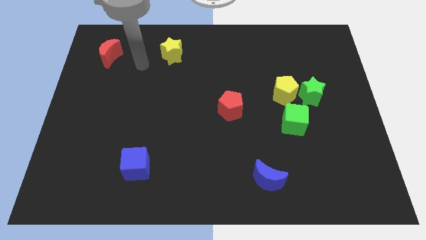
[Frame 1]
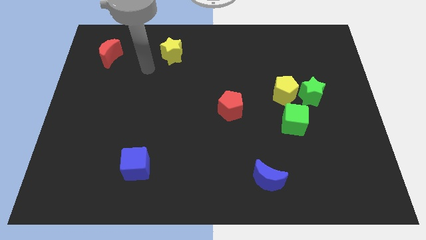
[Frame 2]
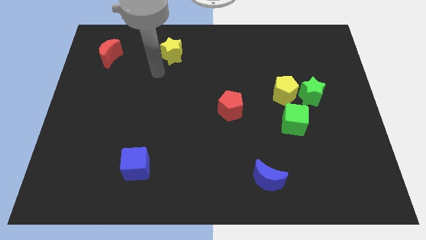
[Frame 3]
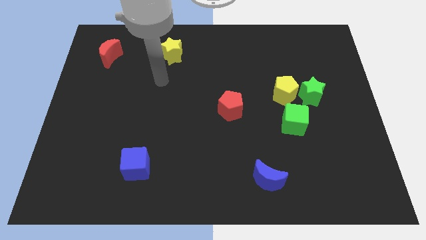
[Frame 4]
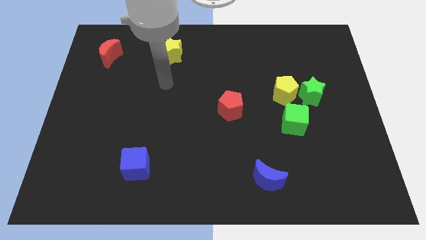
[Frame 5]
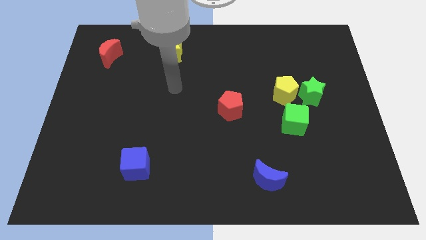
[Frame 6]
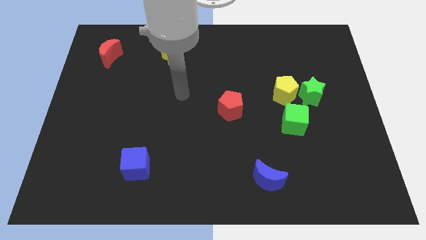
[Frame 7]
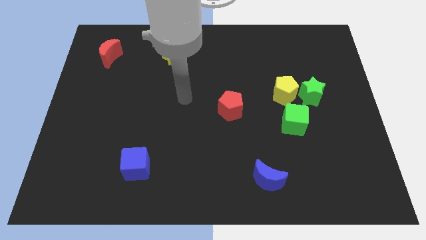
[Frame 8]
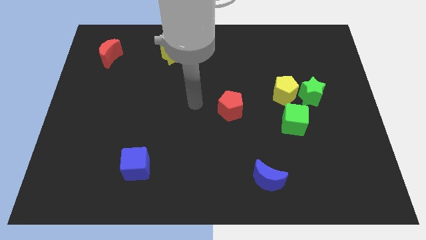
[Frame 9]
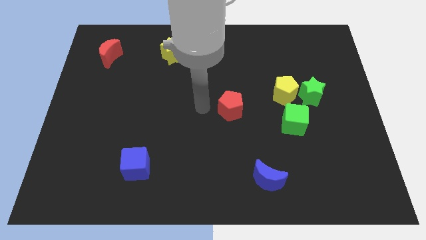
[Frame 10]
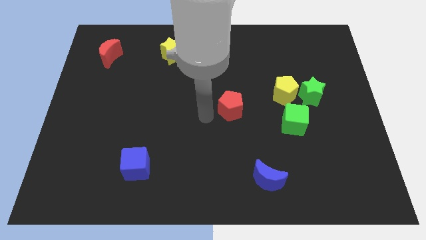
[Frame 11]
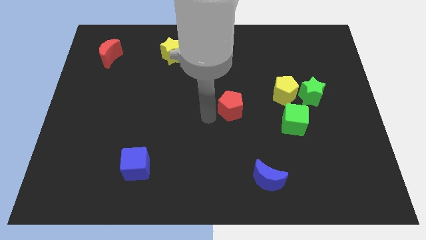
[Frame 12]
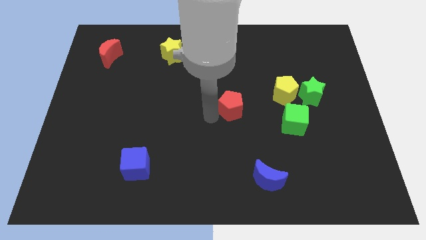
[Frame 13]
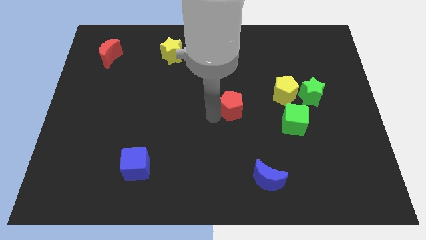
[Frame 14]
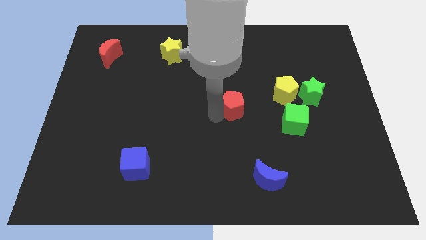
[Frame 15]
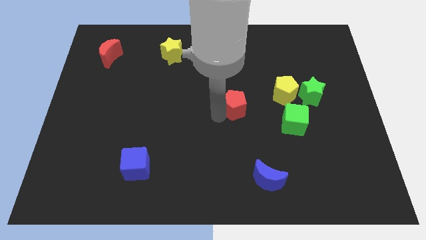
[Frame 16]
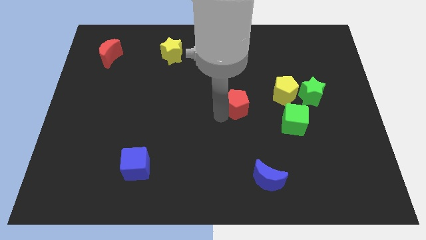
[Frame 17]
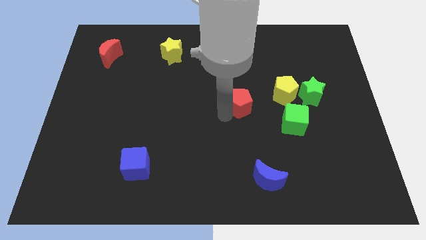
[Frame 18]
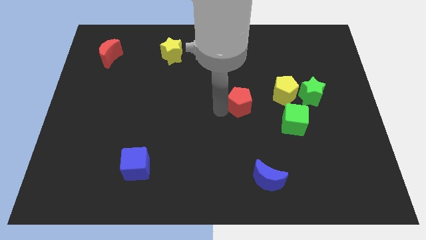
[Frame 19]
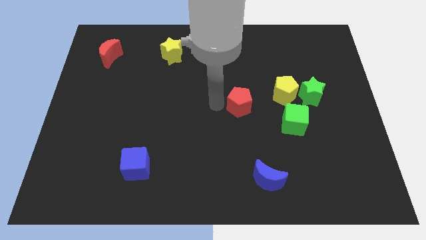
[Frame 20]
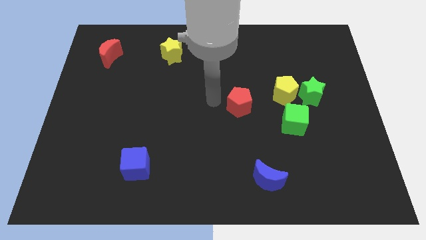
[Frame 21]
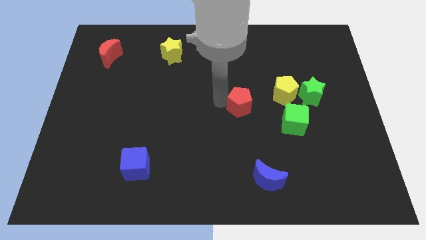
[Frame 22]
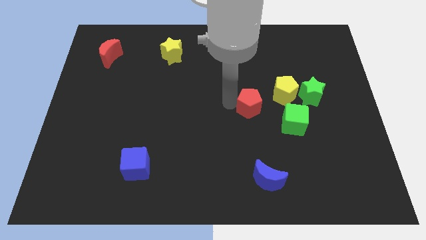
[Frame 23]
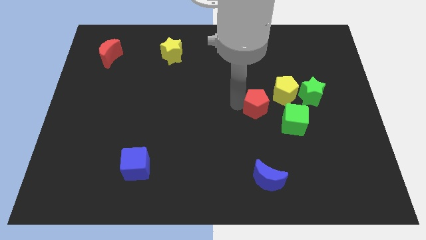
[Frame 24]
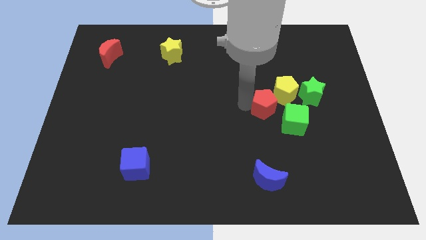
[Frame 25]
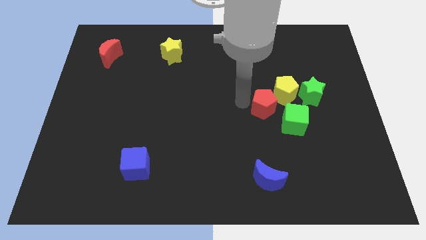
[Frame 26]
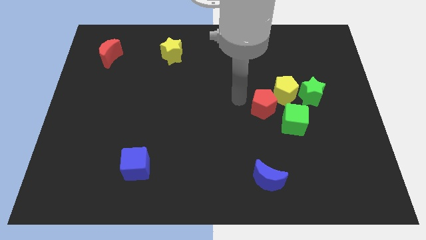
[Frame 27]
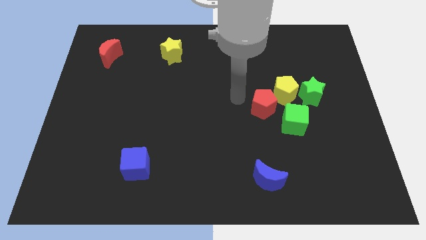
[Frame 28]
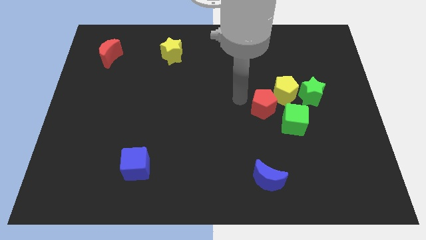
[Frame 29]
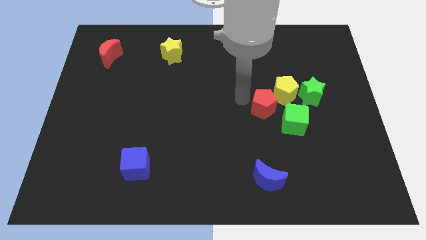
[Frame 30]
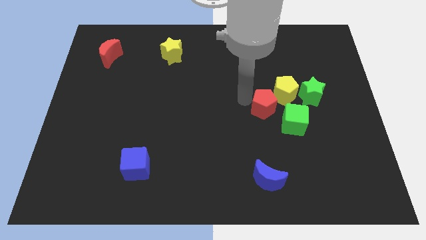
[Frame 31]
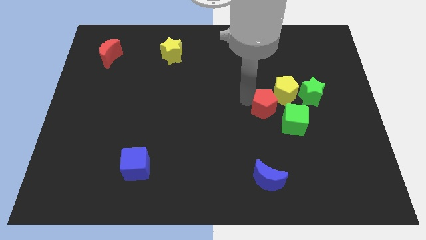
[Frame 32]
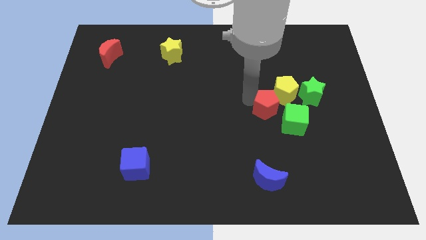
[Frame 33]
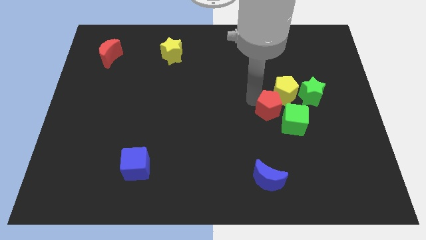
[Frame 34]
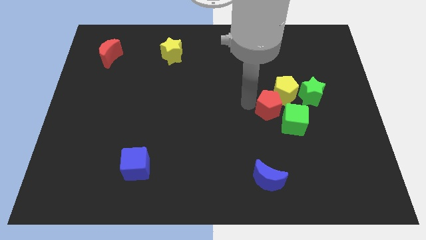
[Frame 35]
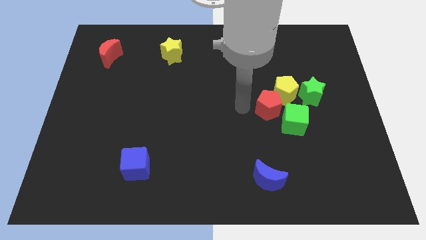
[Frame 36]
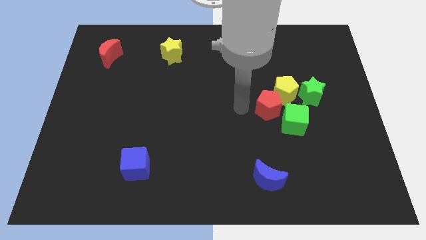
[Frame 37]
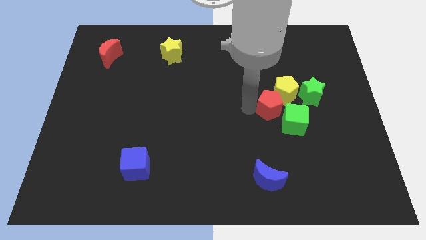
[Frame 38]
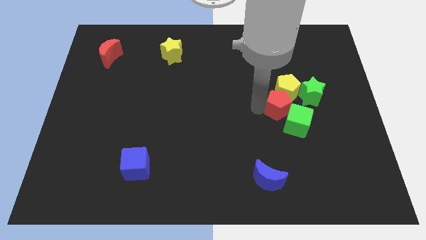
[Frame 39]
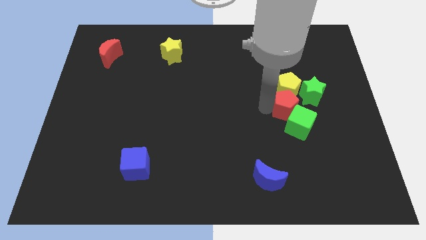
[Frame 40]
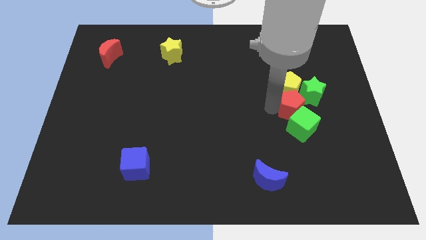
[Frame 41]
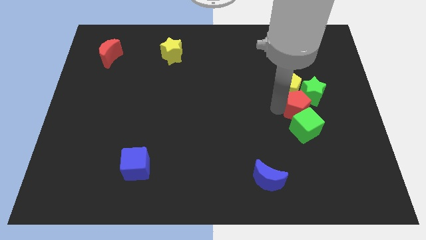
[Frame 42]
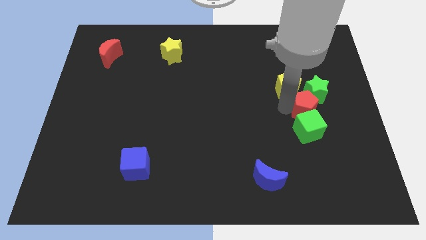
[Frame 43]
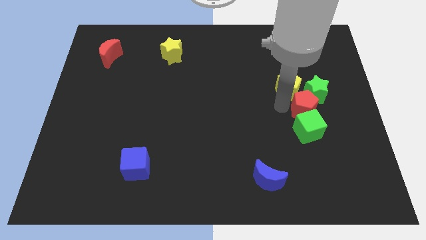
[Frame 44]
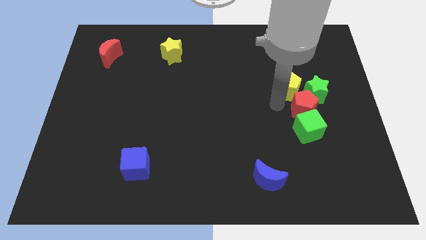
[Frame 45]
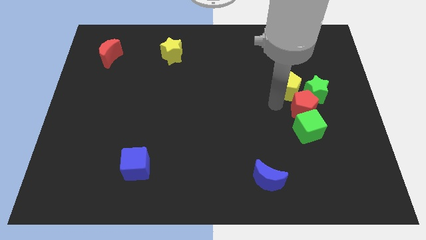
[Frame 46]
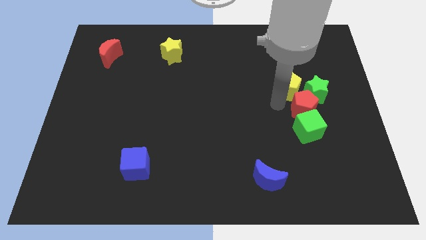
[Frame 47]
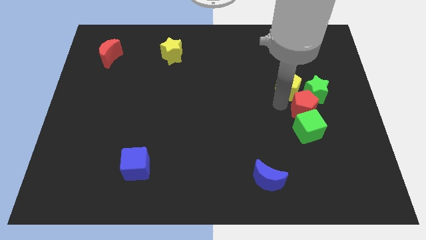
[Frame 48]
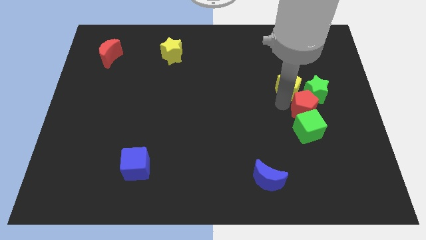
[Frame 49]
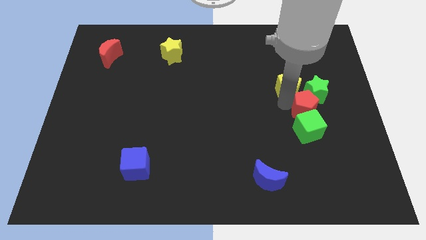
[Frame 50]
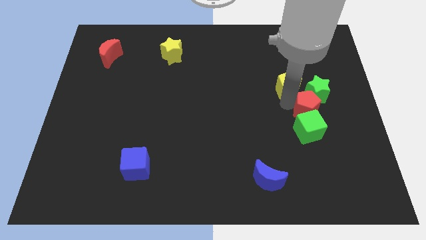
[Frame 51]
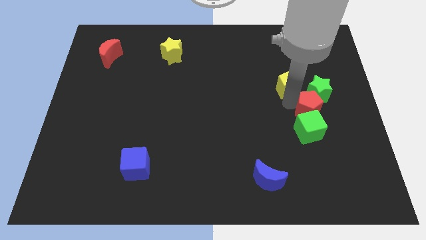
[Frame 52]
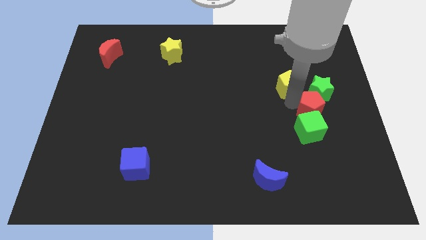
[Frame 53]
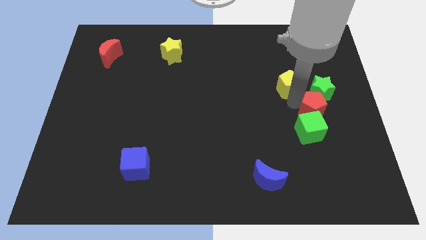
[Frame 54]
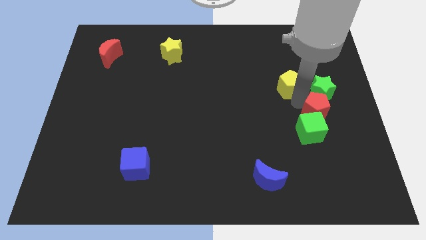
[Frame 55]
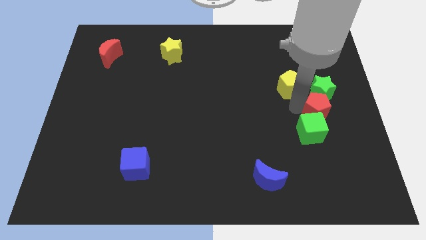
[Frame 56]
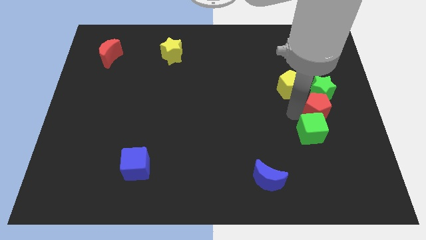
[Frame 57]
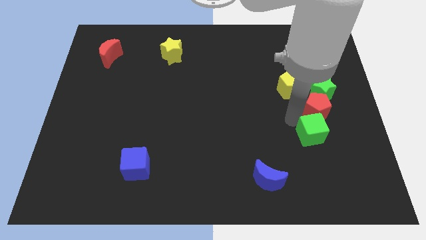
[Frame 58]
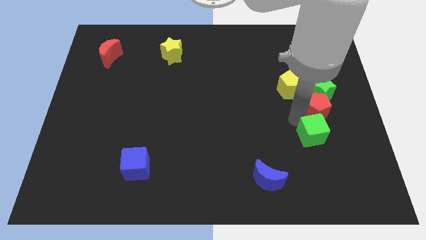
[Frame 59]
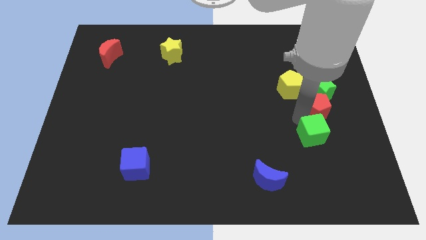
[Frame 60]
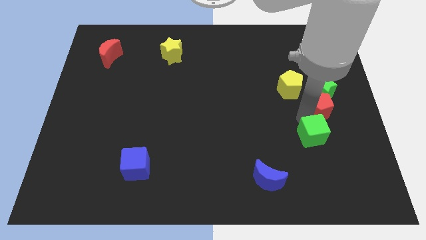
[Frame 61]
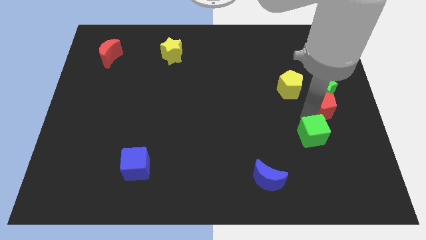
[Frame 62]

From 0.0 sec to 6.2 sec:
push the red pentagon to the right side

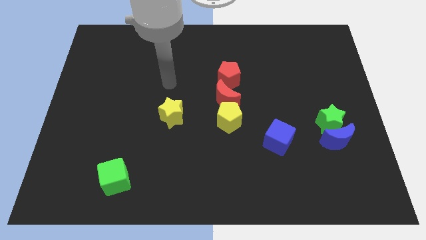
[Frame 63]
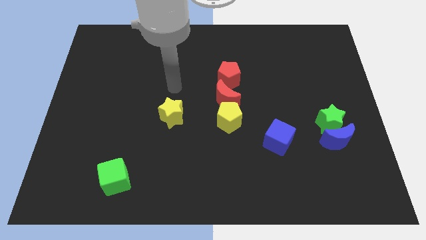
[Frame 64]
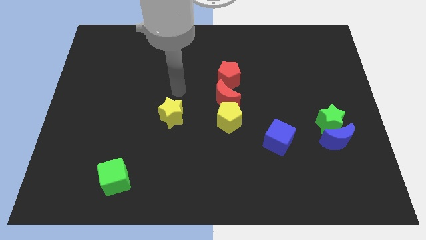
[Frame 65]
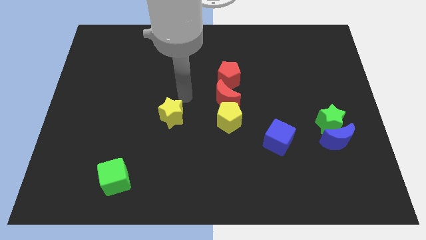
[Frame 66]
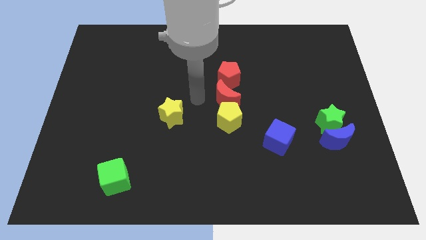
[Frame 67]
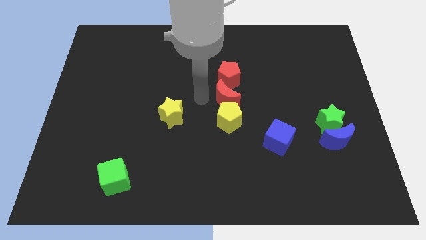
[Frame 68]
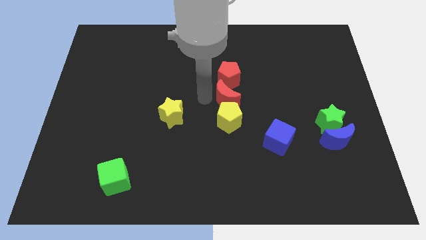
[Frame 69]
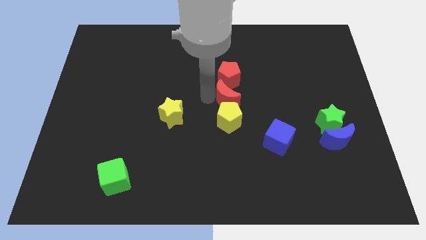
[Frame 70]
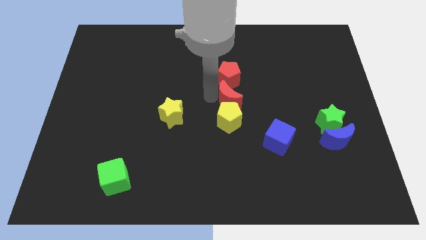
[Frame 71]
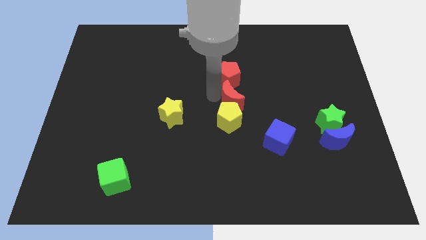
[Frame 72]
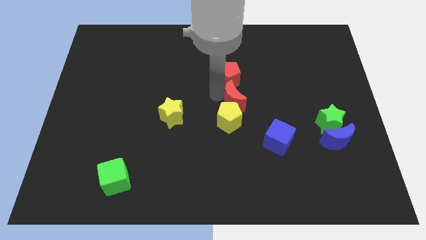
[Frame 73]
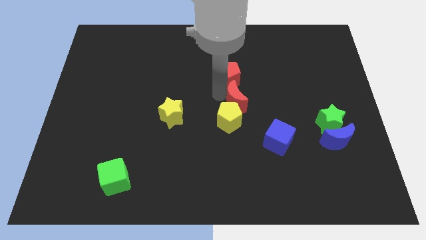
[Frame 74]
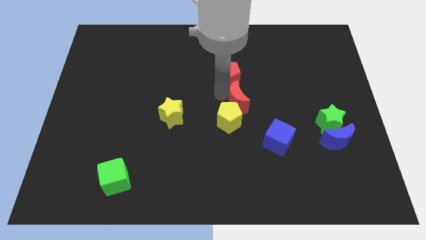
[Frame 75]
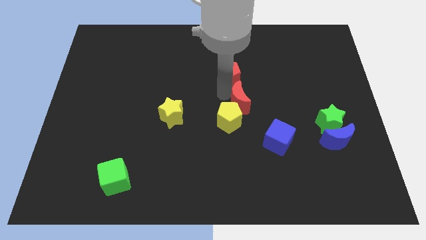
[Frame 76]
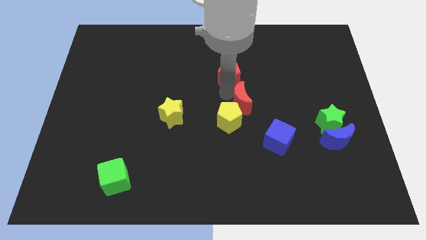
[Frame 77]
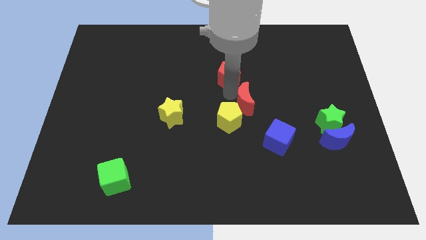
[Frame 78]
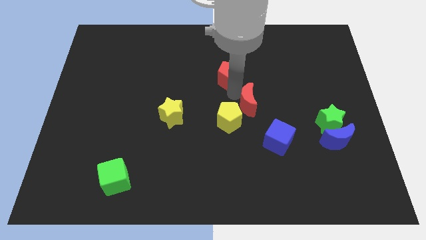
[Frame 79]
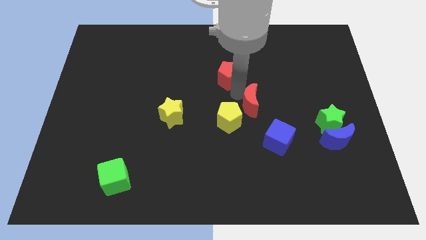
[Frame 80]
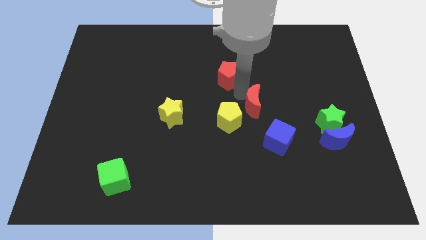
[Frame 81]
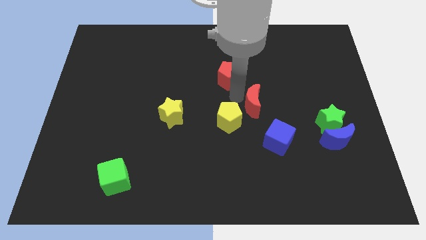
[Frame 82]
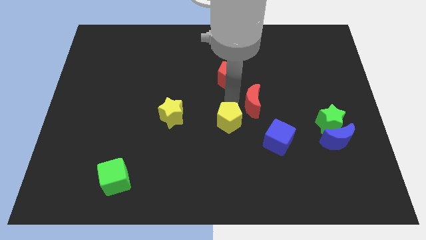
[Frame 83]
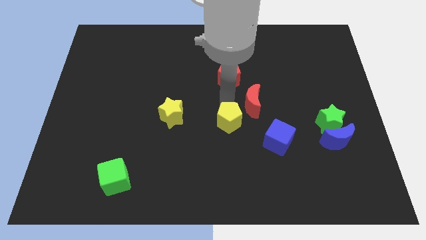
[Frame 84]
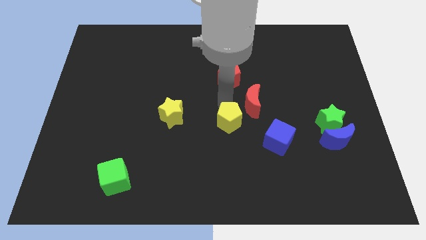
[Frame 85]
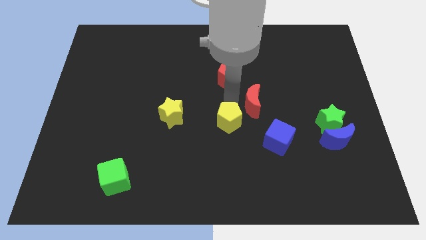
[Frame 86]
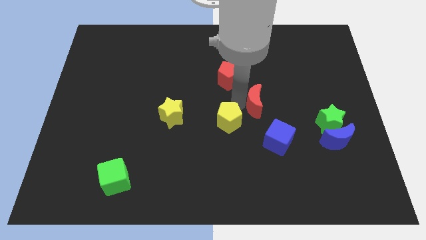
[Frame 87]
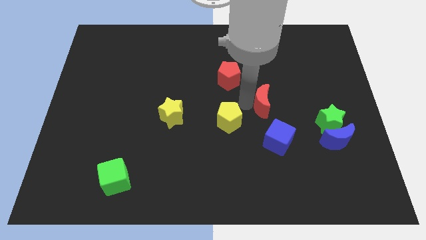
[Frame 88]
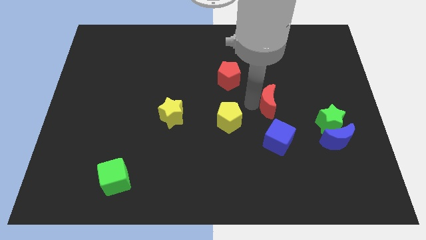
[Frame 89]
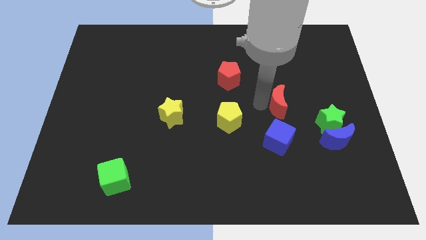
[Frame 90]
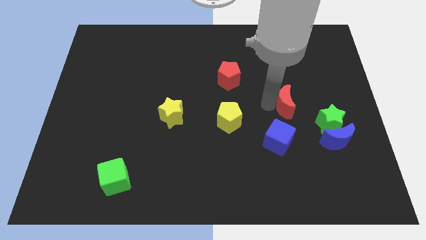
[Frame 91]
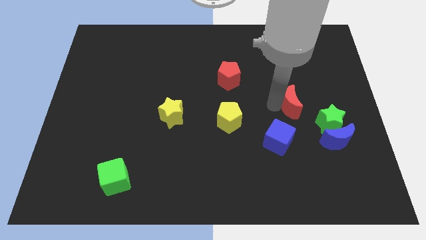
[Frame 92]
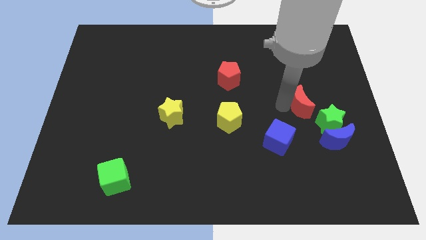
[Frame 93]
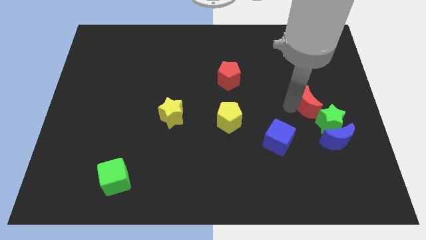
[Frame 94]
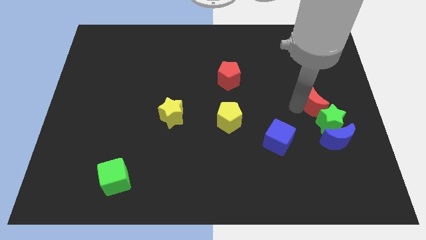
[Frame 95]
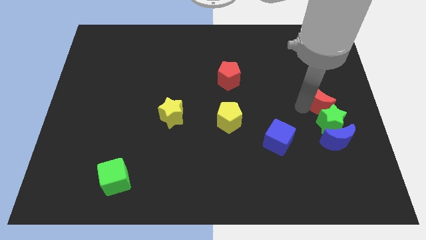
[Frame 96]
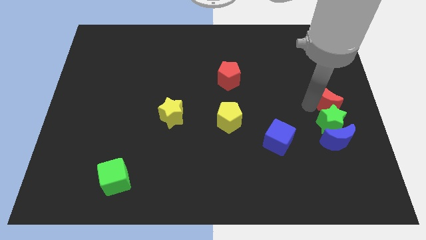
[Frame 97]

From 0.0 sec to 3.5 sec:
slide the red moon to the right side
